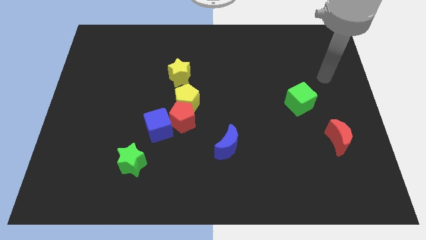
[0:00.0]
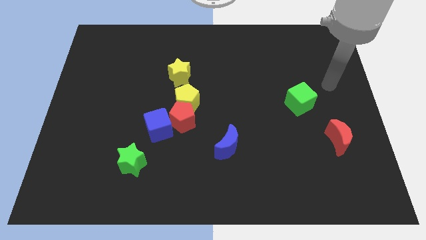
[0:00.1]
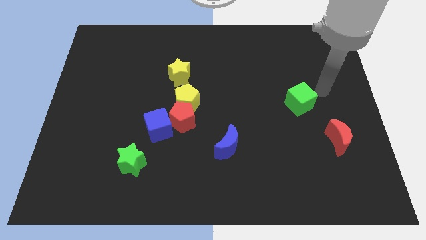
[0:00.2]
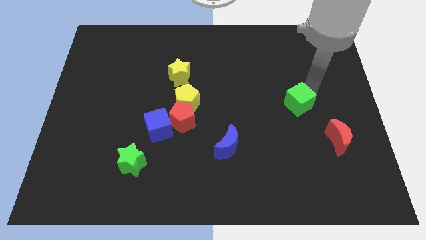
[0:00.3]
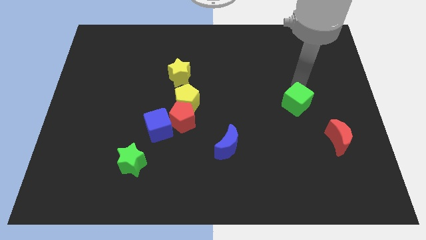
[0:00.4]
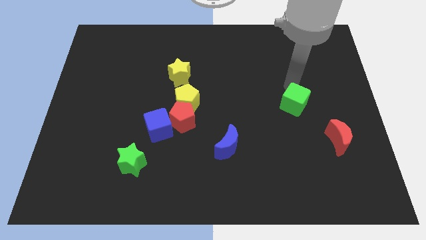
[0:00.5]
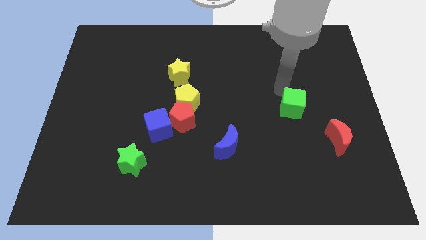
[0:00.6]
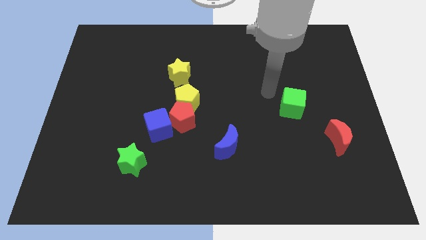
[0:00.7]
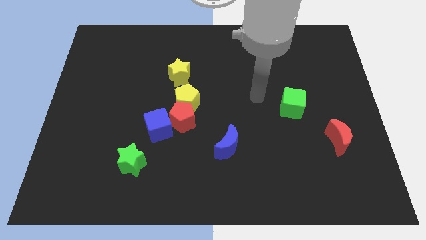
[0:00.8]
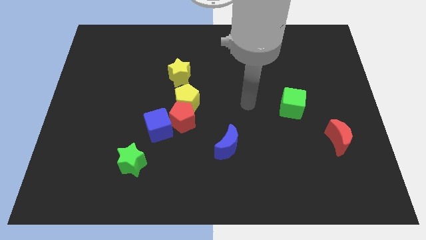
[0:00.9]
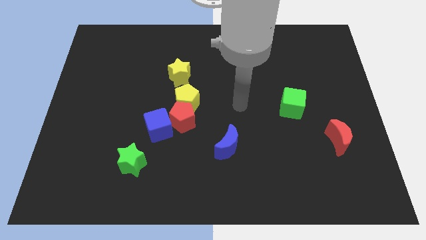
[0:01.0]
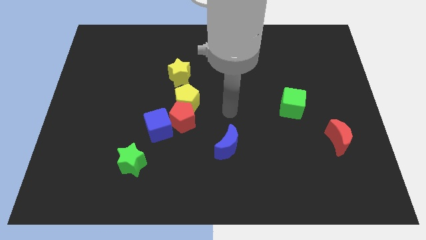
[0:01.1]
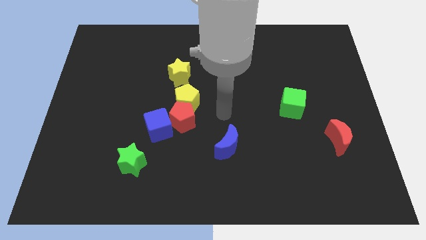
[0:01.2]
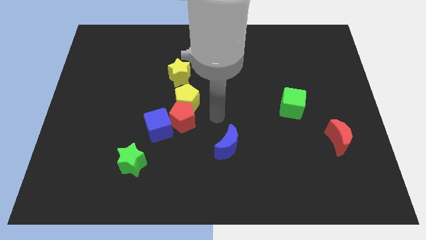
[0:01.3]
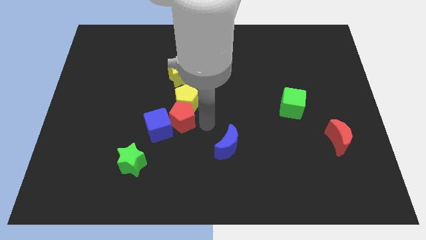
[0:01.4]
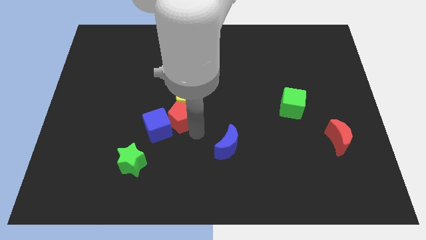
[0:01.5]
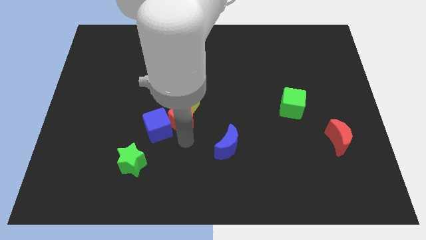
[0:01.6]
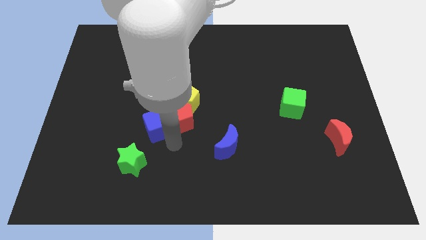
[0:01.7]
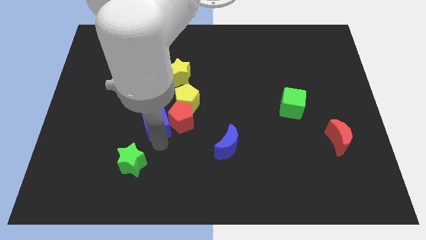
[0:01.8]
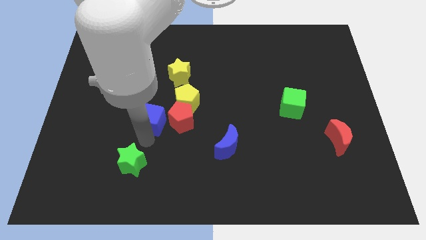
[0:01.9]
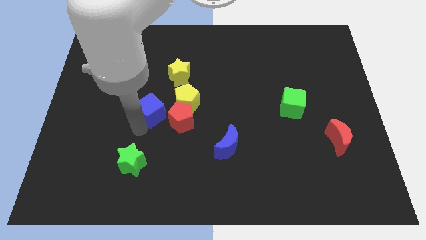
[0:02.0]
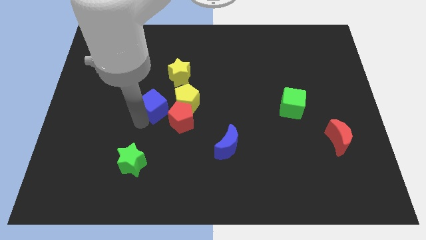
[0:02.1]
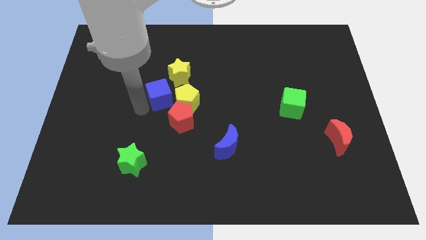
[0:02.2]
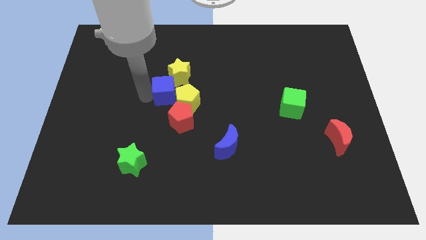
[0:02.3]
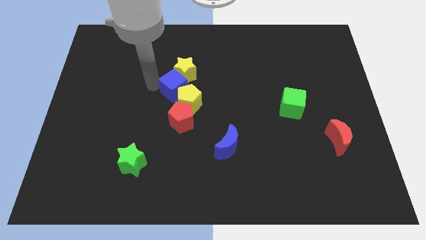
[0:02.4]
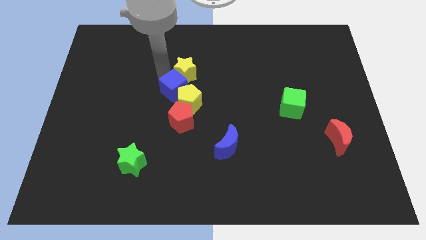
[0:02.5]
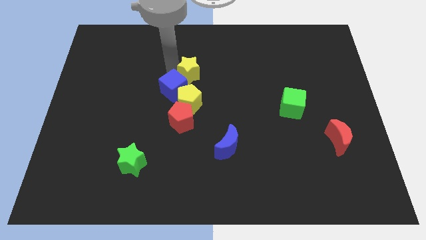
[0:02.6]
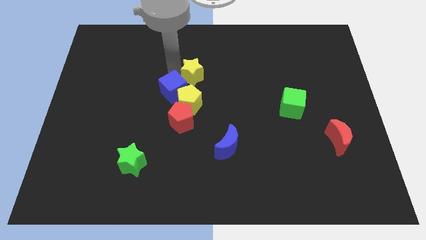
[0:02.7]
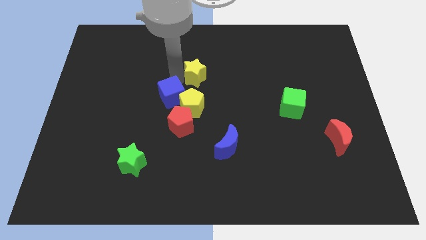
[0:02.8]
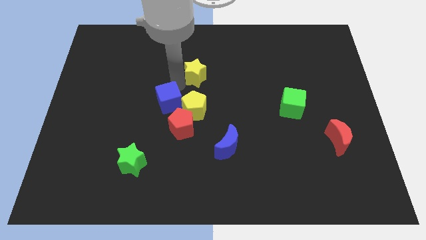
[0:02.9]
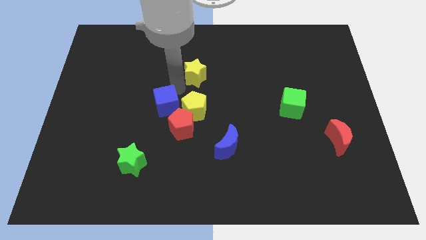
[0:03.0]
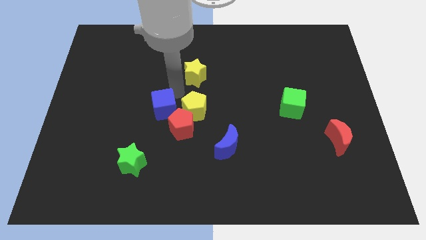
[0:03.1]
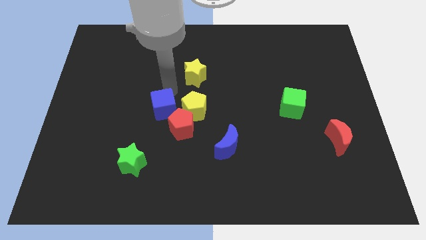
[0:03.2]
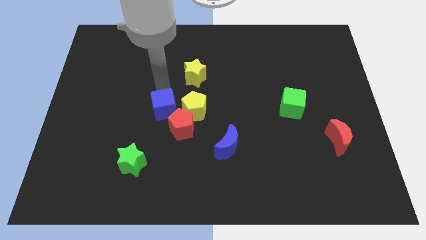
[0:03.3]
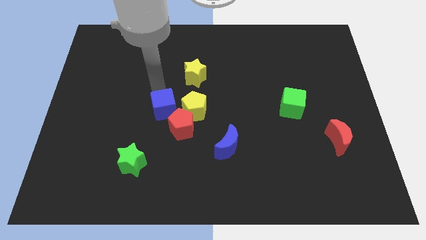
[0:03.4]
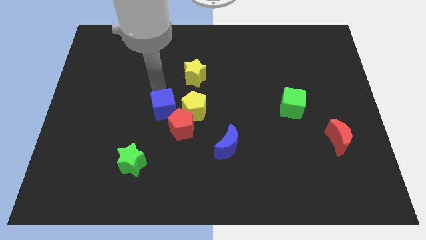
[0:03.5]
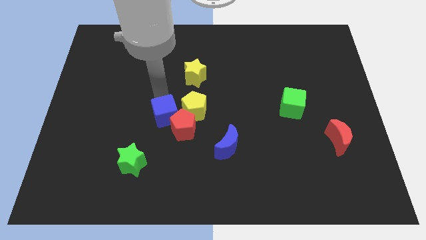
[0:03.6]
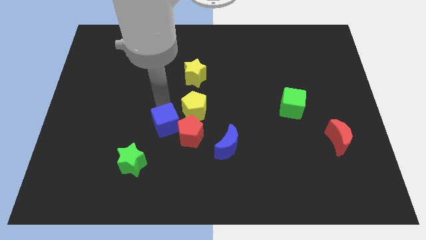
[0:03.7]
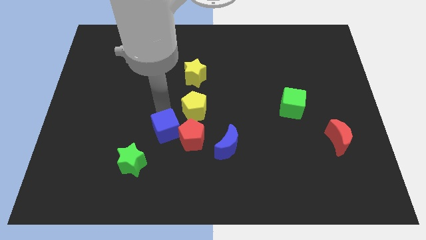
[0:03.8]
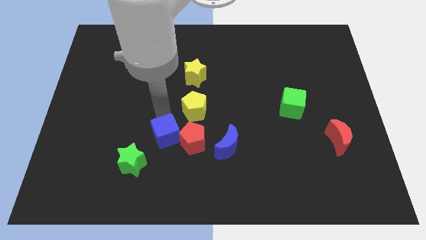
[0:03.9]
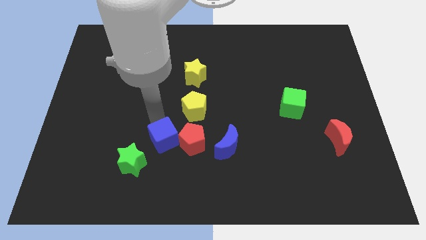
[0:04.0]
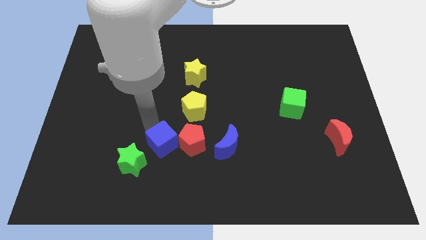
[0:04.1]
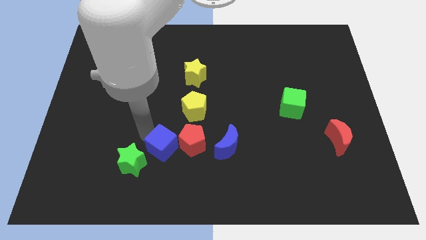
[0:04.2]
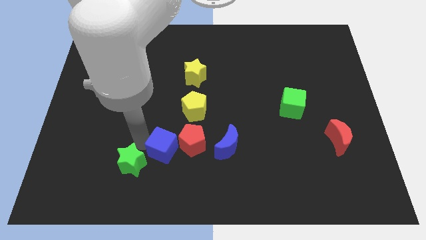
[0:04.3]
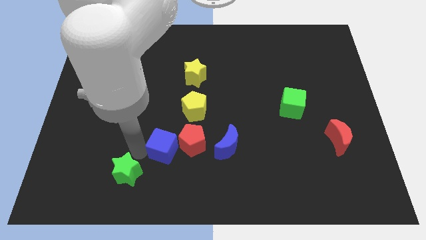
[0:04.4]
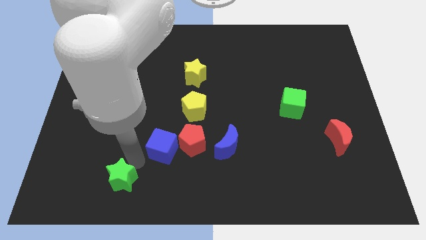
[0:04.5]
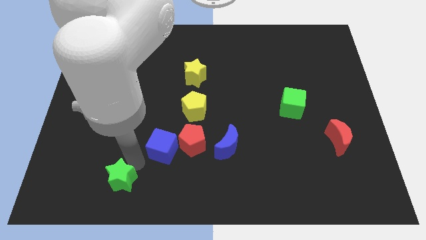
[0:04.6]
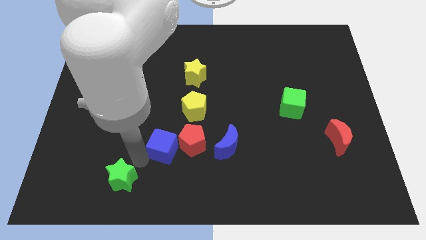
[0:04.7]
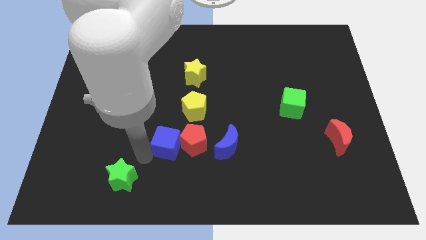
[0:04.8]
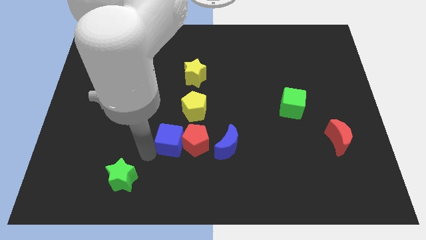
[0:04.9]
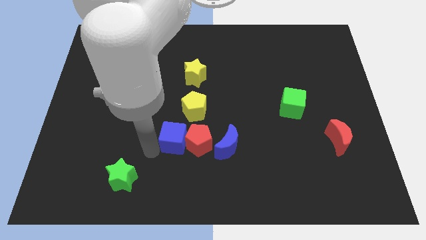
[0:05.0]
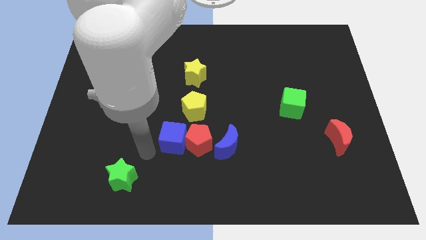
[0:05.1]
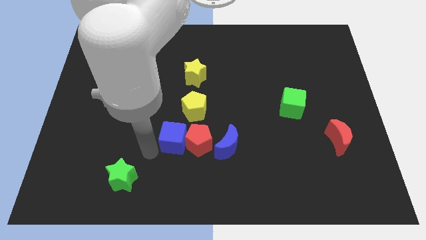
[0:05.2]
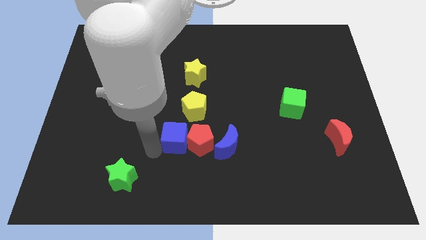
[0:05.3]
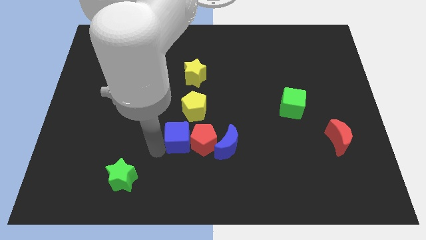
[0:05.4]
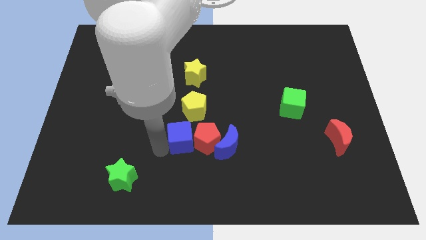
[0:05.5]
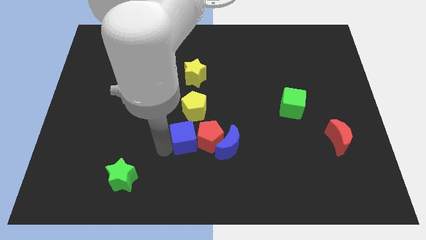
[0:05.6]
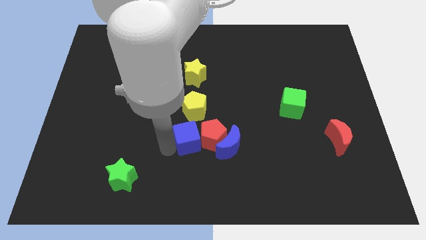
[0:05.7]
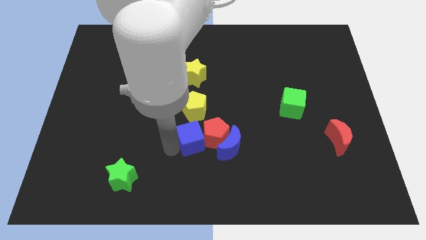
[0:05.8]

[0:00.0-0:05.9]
put the blue cube diagonally up and to the left of the blue moon
